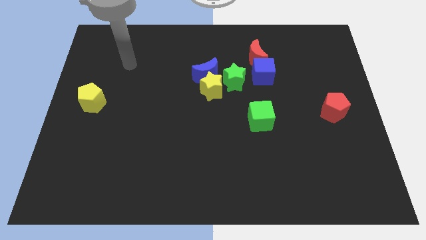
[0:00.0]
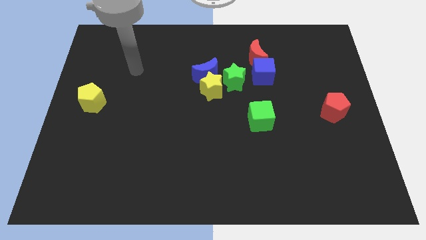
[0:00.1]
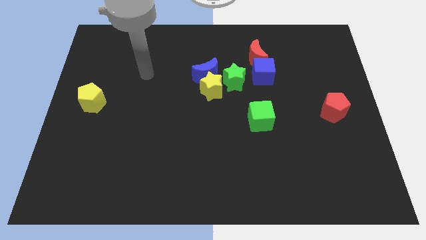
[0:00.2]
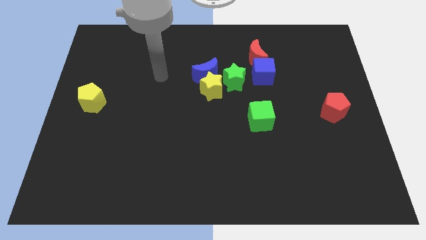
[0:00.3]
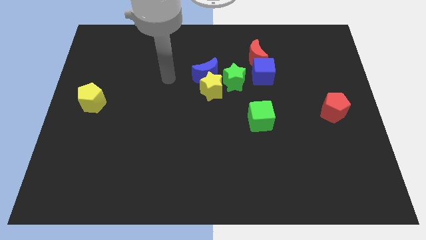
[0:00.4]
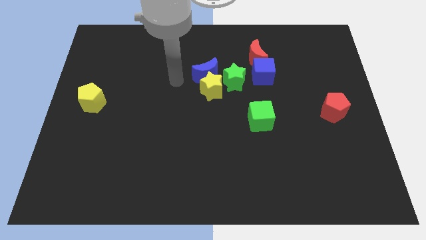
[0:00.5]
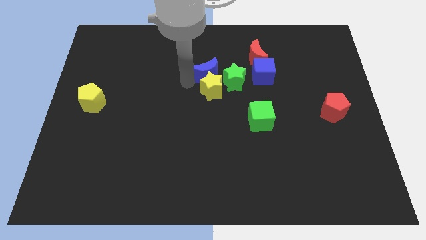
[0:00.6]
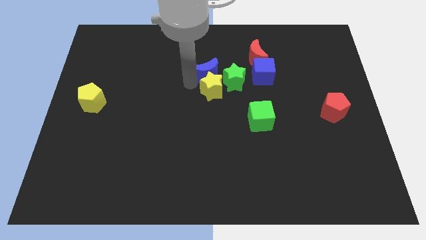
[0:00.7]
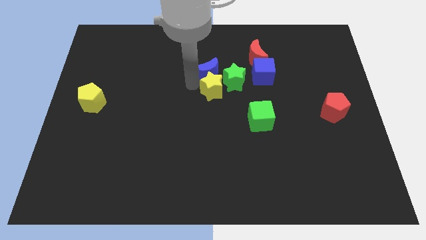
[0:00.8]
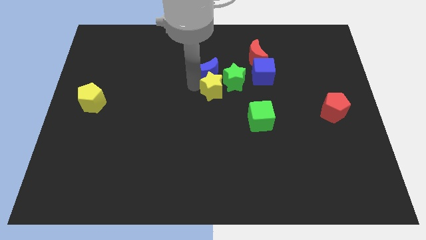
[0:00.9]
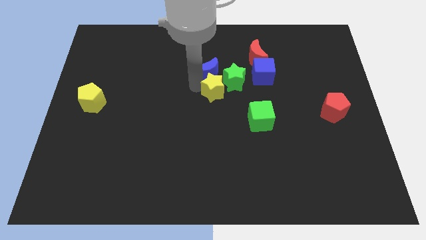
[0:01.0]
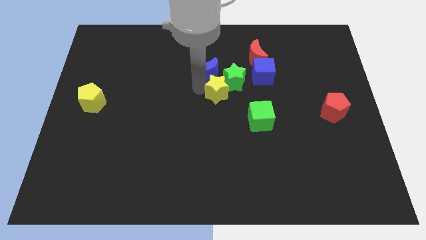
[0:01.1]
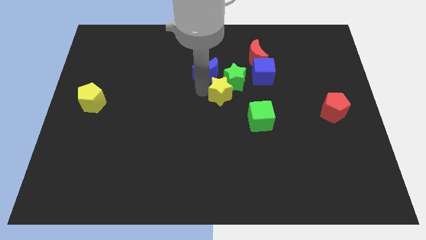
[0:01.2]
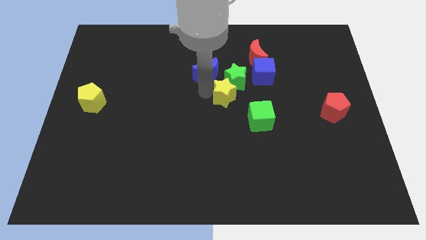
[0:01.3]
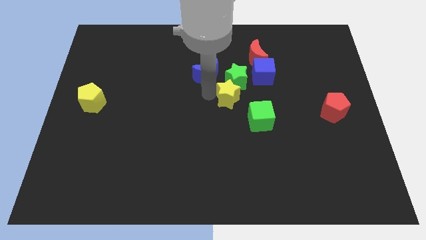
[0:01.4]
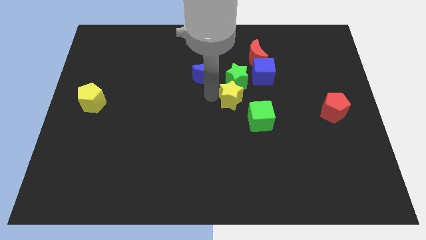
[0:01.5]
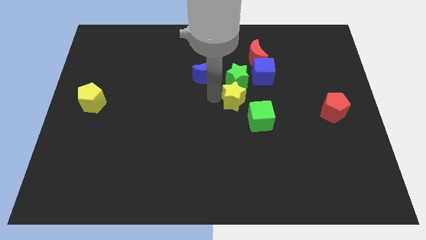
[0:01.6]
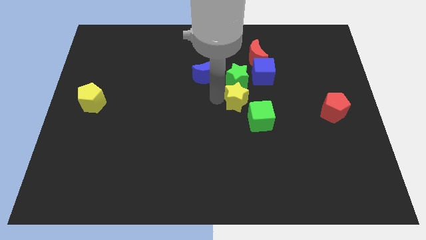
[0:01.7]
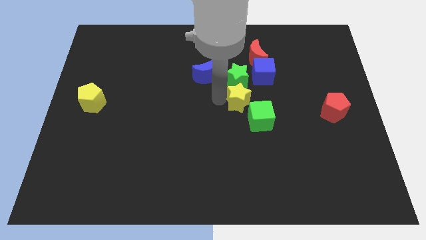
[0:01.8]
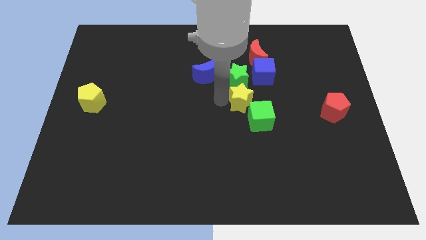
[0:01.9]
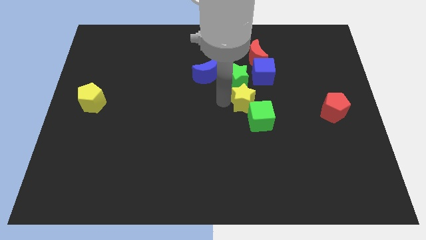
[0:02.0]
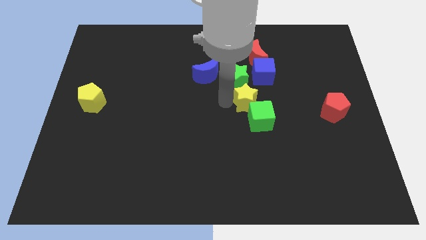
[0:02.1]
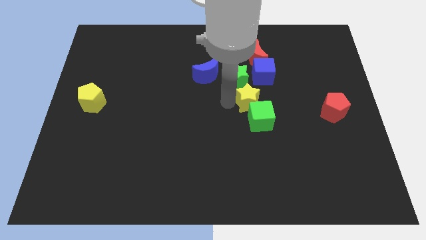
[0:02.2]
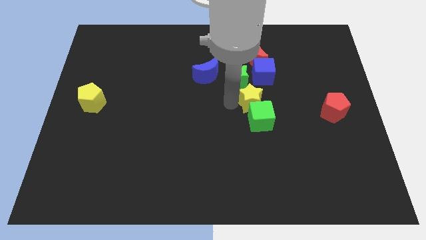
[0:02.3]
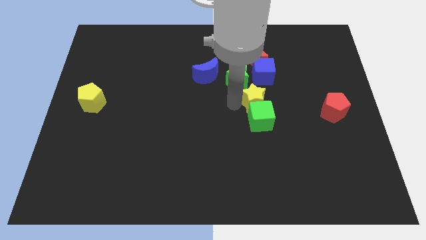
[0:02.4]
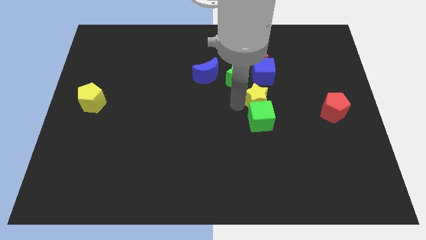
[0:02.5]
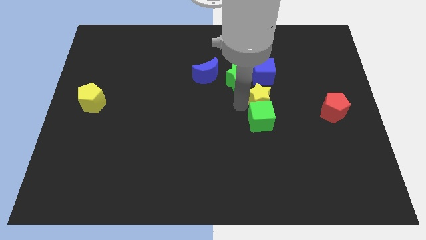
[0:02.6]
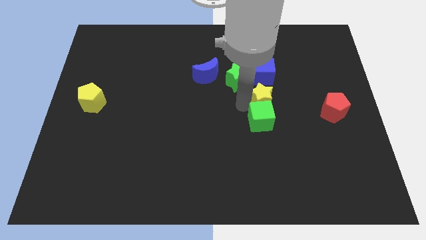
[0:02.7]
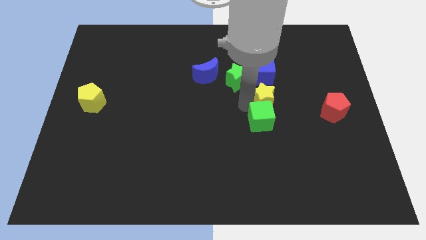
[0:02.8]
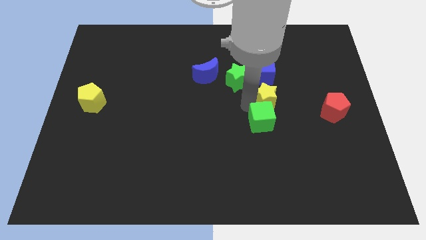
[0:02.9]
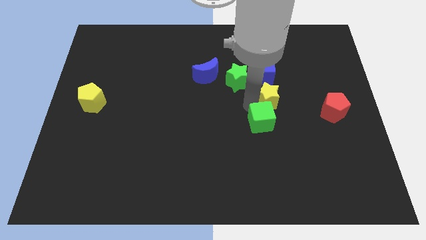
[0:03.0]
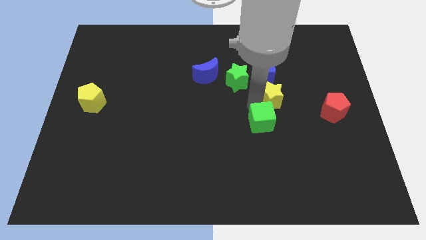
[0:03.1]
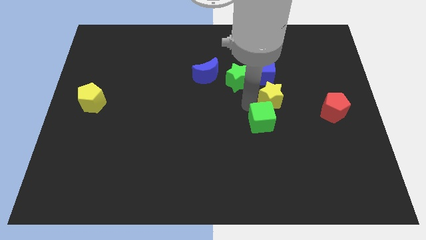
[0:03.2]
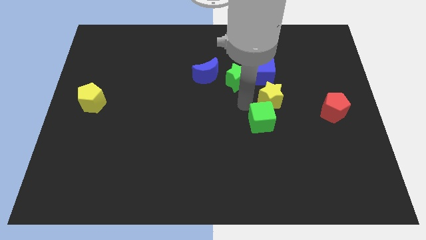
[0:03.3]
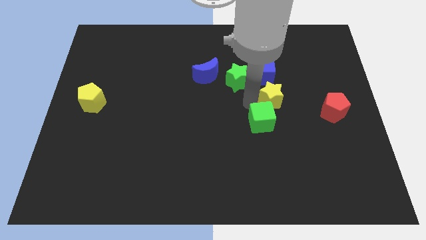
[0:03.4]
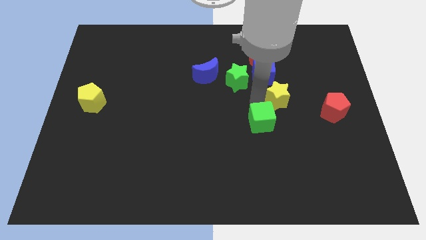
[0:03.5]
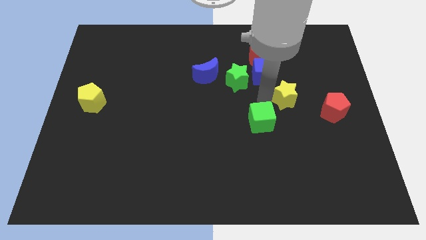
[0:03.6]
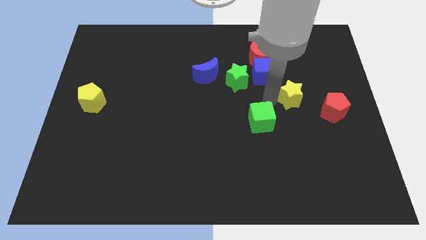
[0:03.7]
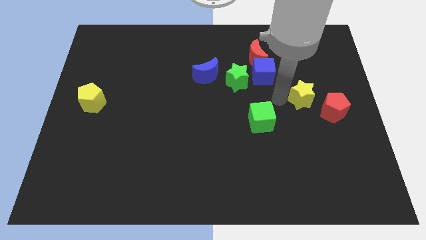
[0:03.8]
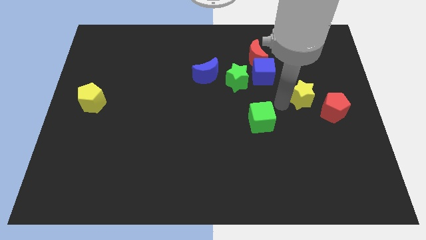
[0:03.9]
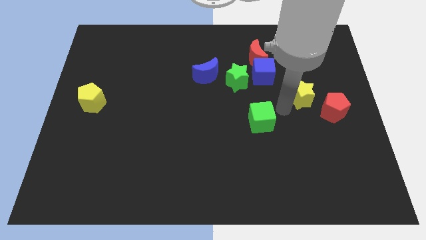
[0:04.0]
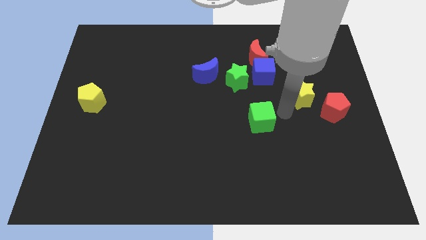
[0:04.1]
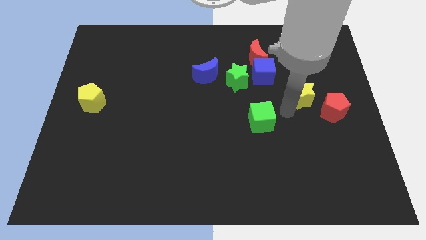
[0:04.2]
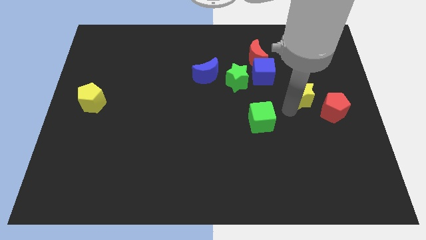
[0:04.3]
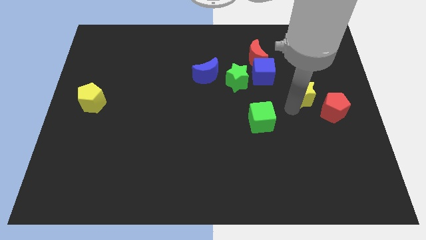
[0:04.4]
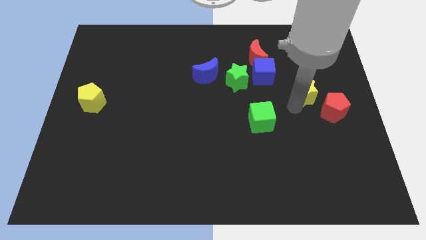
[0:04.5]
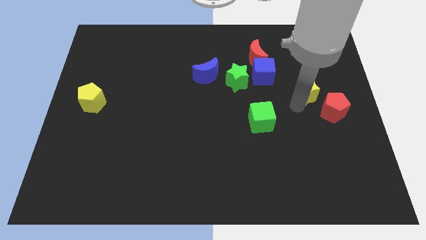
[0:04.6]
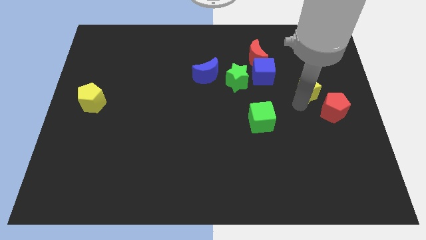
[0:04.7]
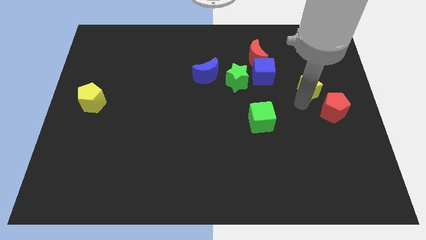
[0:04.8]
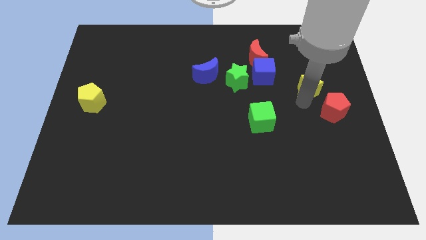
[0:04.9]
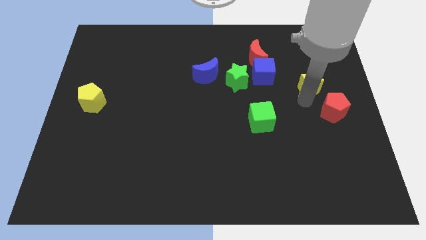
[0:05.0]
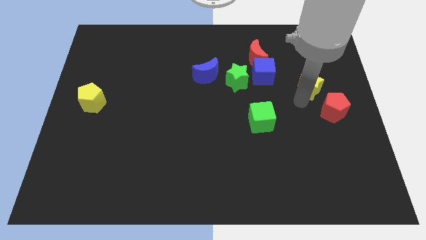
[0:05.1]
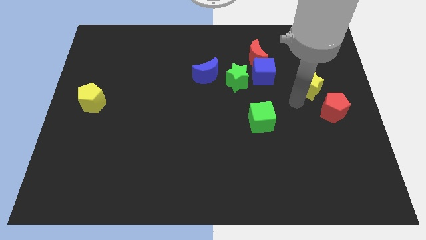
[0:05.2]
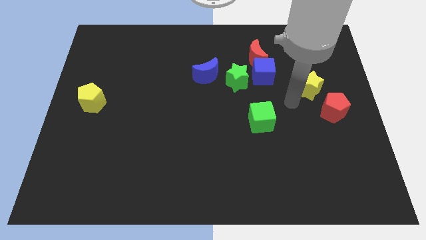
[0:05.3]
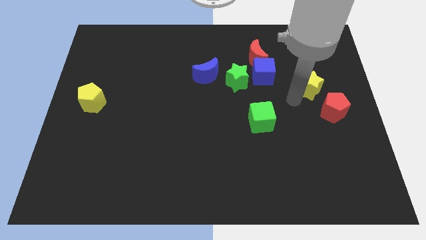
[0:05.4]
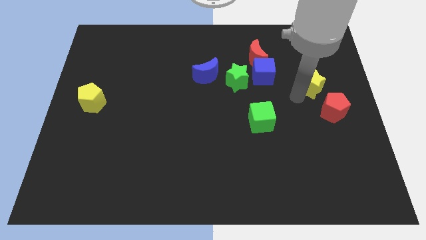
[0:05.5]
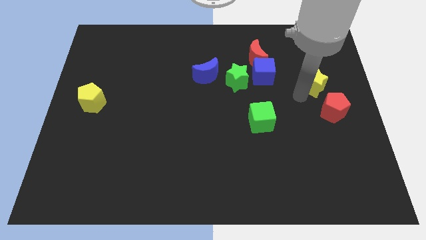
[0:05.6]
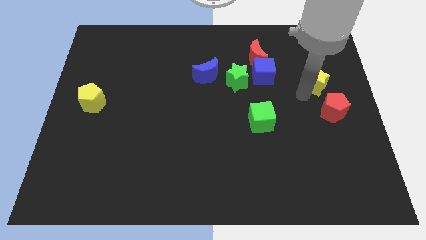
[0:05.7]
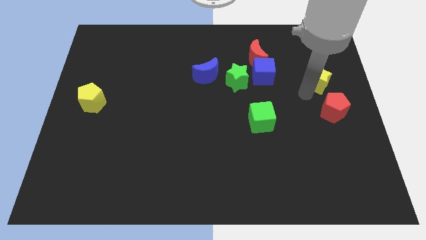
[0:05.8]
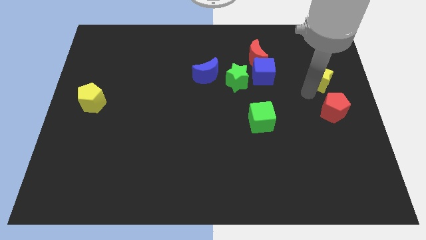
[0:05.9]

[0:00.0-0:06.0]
push the yellow star to the right side

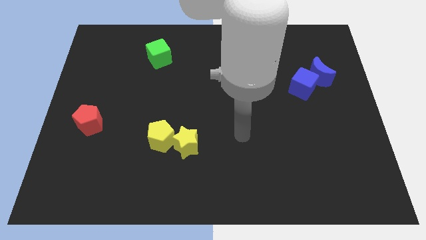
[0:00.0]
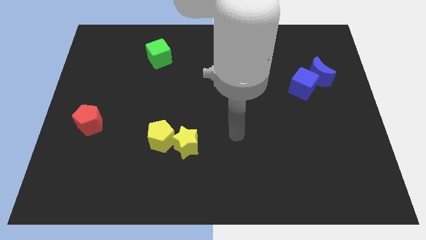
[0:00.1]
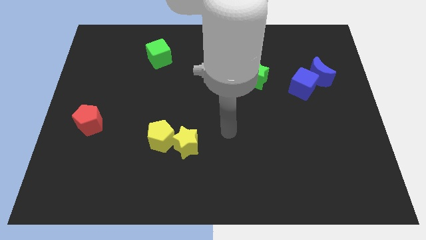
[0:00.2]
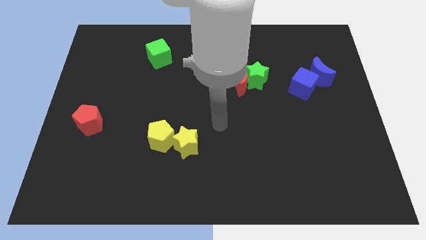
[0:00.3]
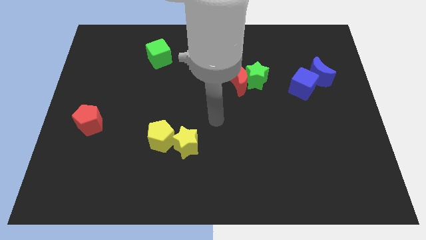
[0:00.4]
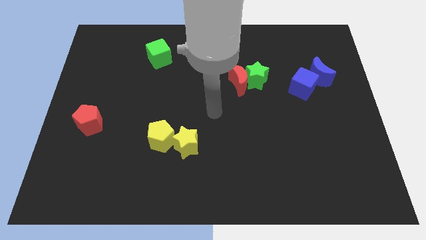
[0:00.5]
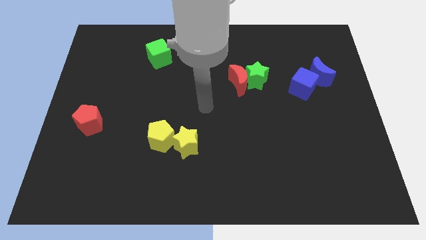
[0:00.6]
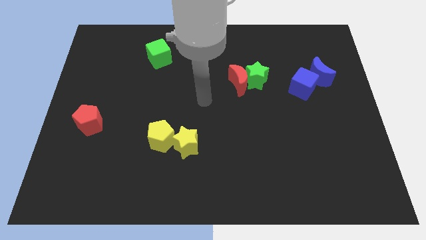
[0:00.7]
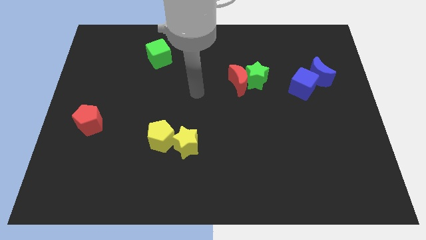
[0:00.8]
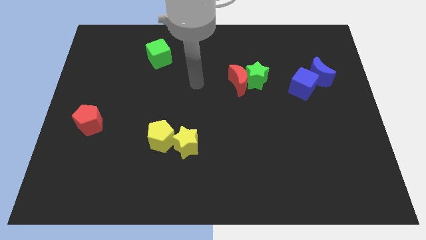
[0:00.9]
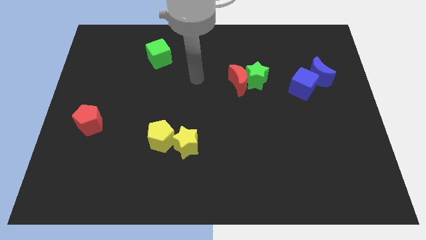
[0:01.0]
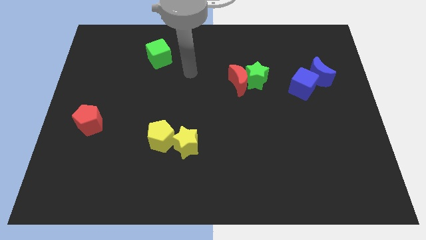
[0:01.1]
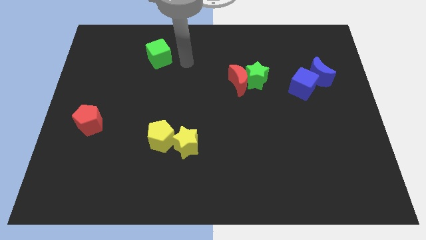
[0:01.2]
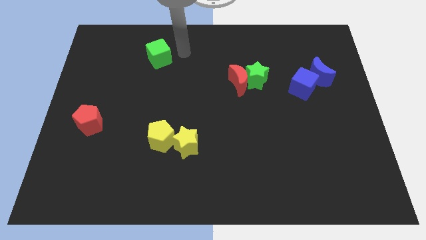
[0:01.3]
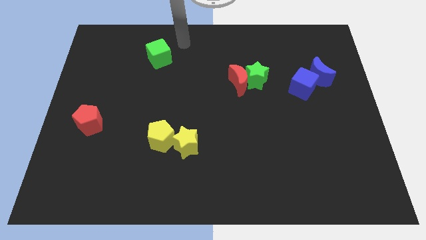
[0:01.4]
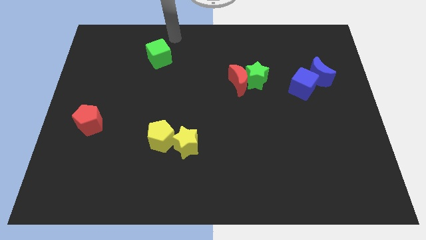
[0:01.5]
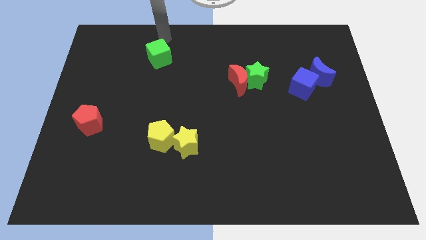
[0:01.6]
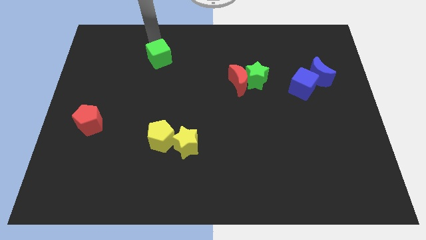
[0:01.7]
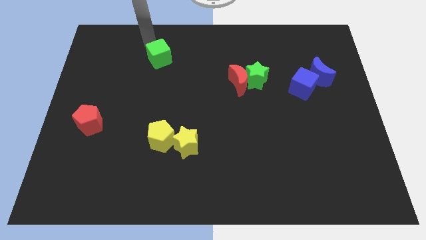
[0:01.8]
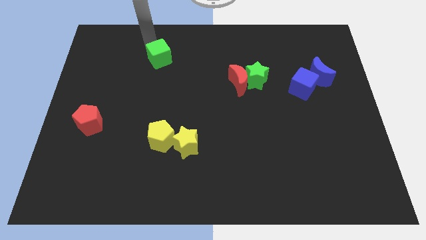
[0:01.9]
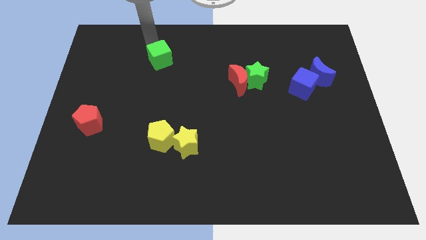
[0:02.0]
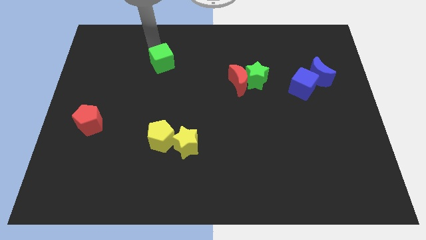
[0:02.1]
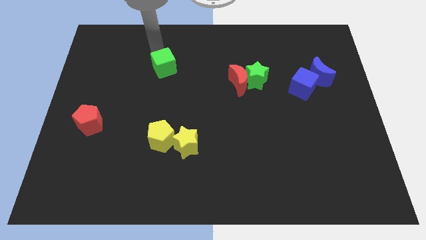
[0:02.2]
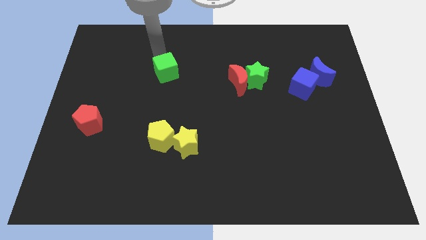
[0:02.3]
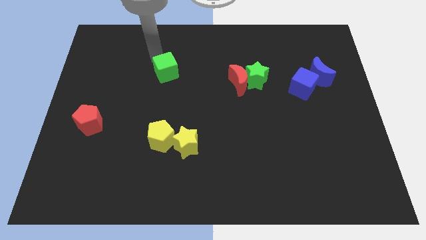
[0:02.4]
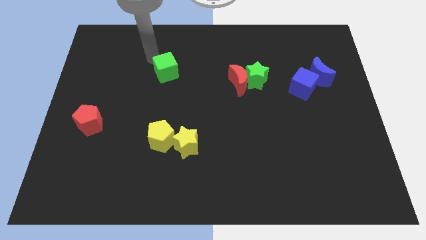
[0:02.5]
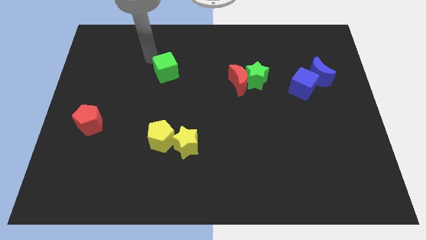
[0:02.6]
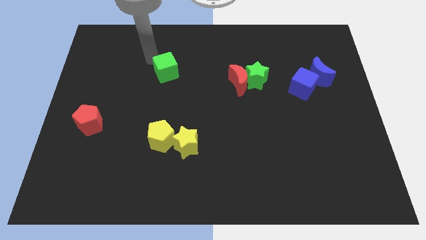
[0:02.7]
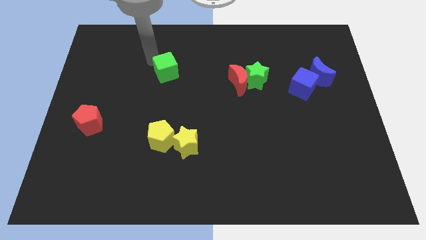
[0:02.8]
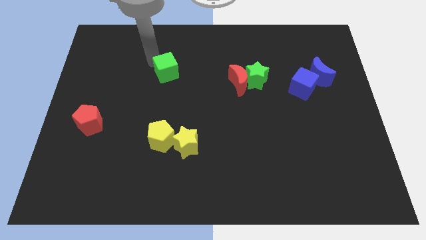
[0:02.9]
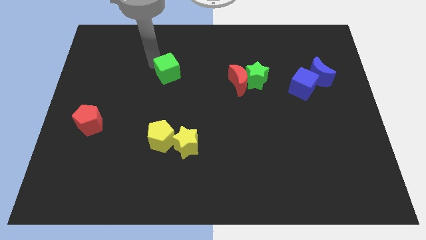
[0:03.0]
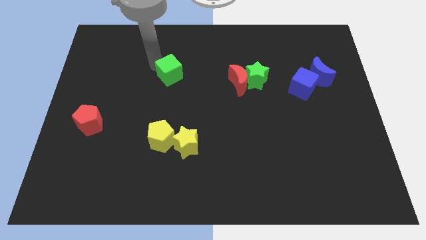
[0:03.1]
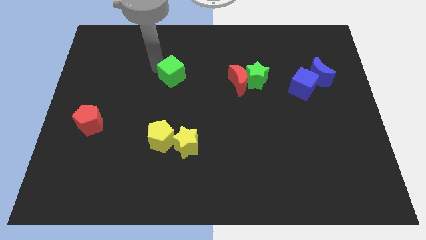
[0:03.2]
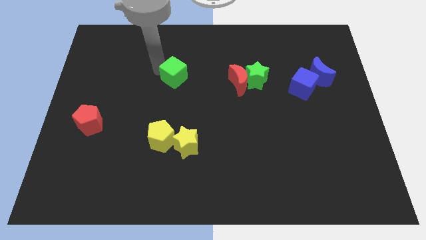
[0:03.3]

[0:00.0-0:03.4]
put the green cube to the center
